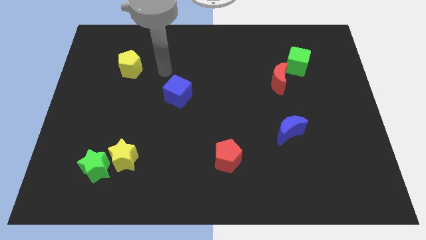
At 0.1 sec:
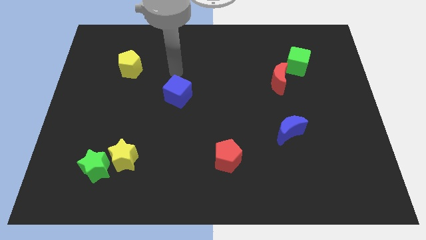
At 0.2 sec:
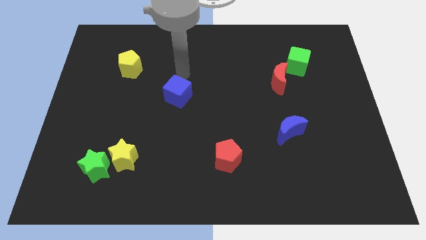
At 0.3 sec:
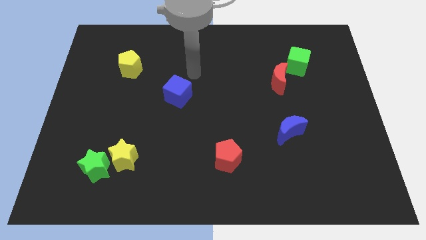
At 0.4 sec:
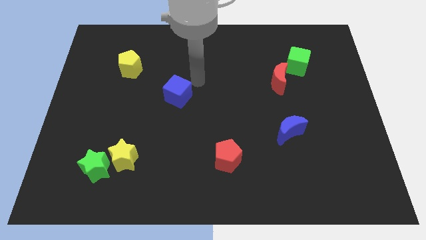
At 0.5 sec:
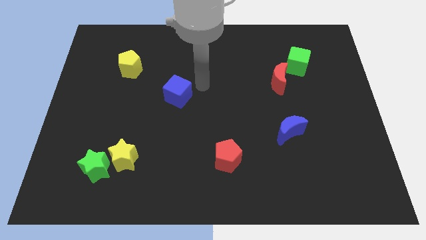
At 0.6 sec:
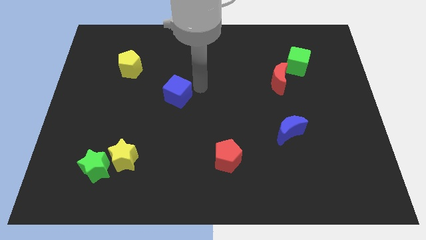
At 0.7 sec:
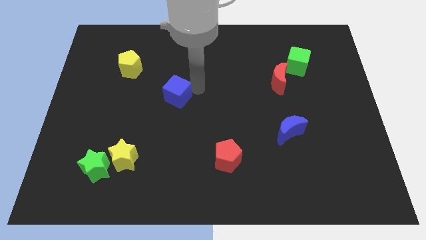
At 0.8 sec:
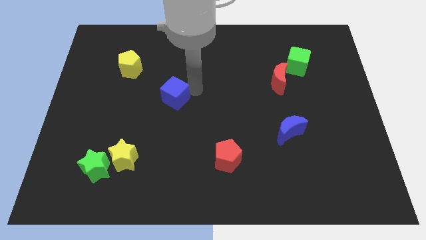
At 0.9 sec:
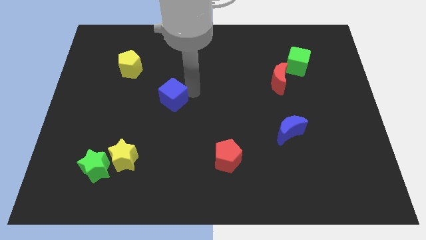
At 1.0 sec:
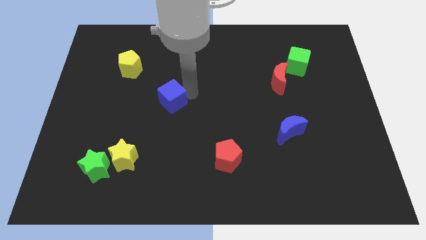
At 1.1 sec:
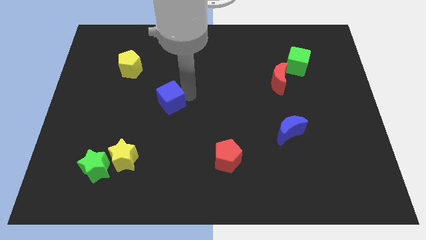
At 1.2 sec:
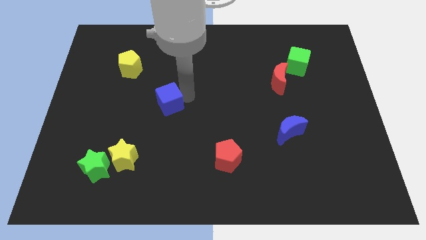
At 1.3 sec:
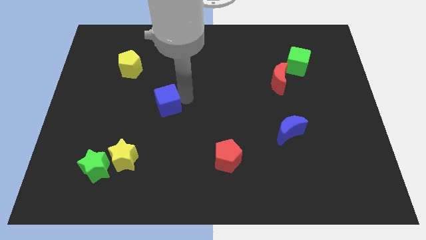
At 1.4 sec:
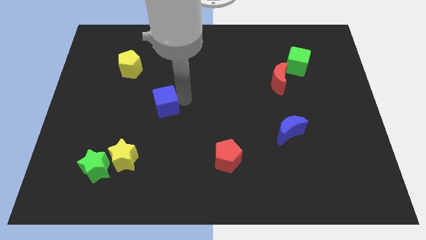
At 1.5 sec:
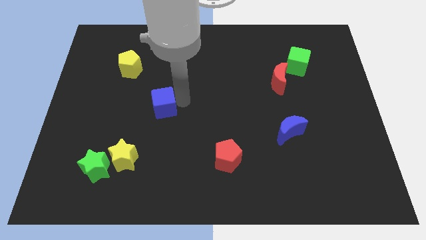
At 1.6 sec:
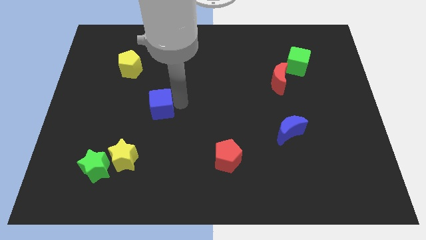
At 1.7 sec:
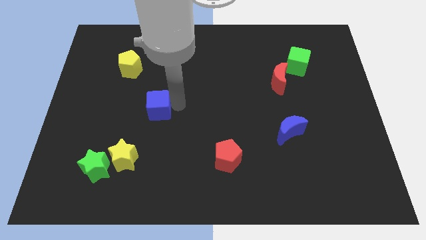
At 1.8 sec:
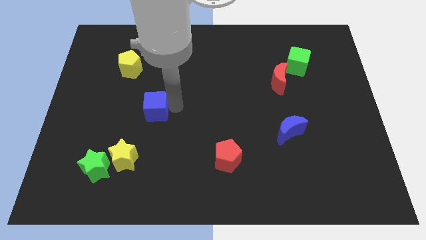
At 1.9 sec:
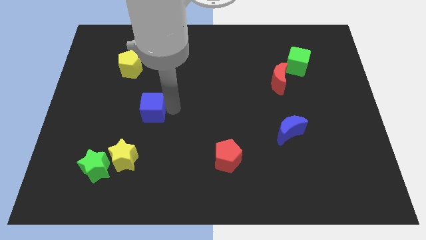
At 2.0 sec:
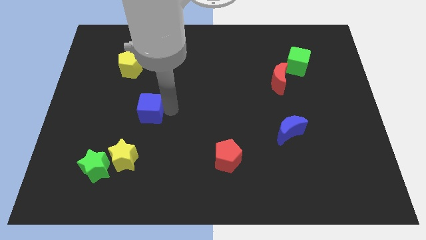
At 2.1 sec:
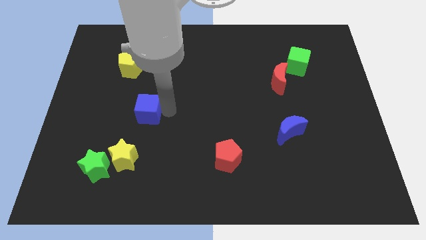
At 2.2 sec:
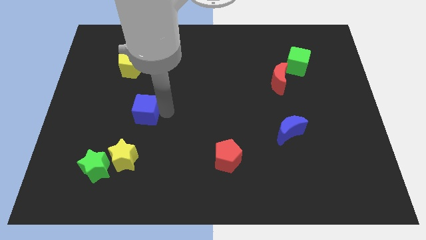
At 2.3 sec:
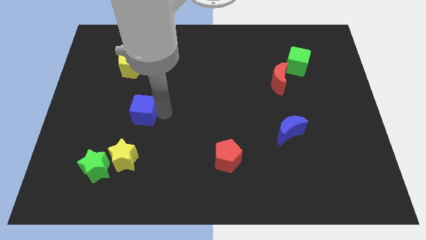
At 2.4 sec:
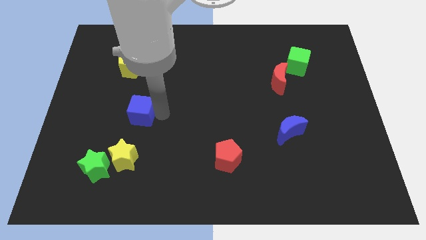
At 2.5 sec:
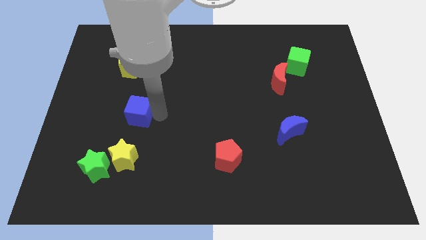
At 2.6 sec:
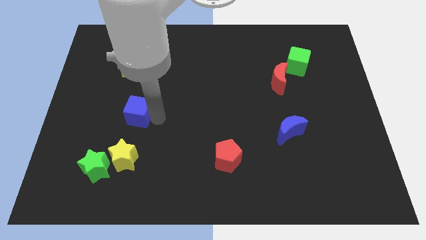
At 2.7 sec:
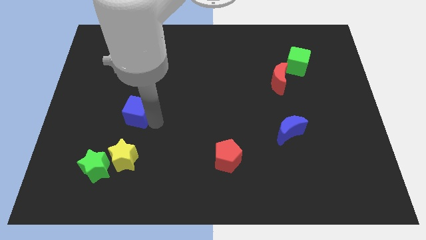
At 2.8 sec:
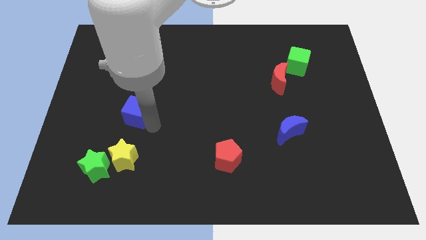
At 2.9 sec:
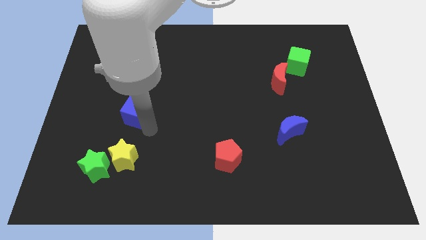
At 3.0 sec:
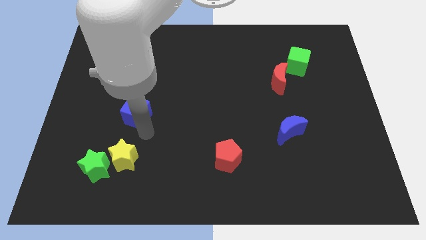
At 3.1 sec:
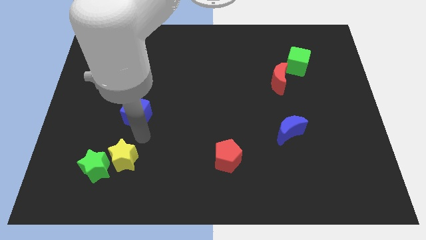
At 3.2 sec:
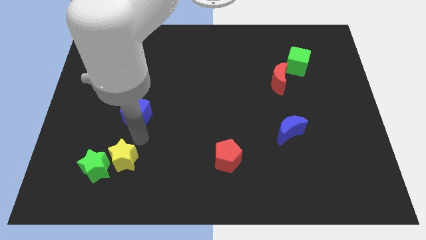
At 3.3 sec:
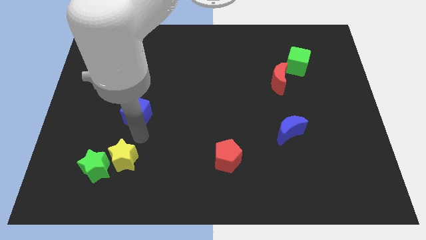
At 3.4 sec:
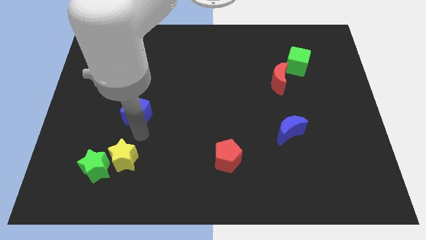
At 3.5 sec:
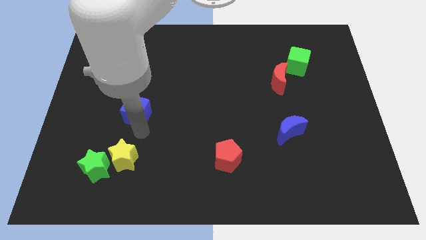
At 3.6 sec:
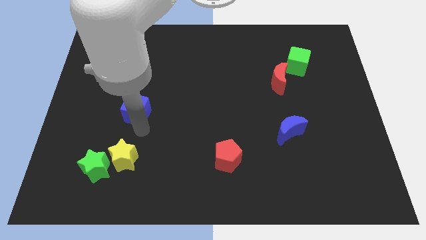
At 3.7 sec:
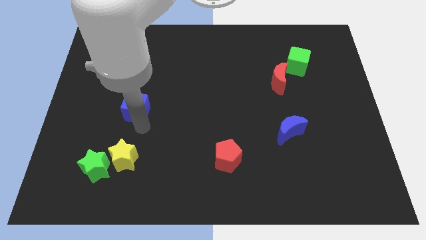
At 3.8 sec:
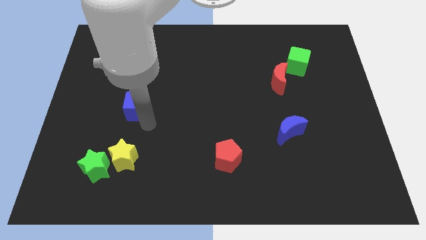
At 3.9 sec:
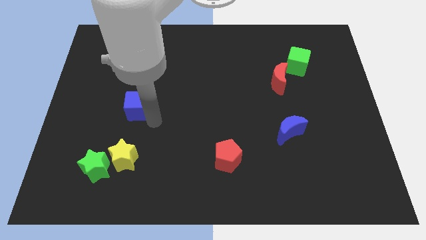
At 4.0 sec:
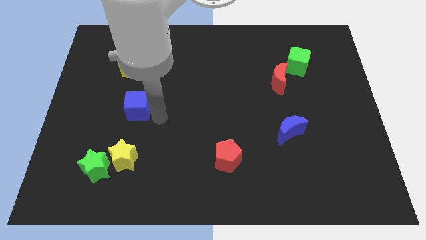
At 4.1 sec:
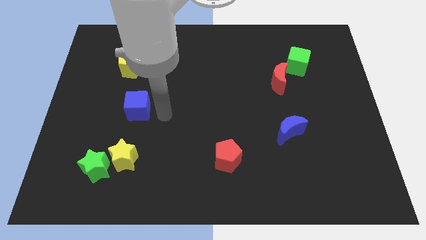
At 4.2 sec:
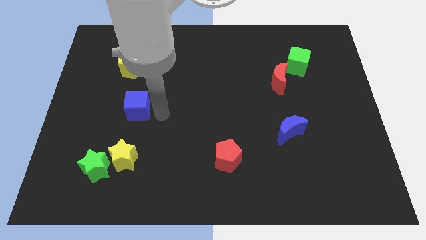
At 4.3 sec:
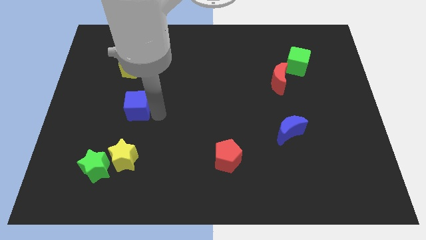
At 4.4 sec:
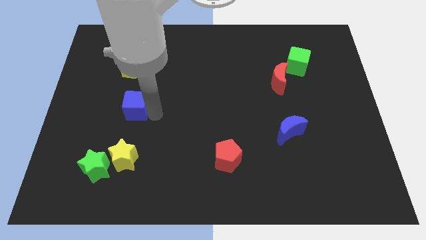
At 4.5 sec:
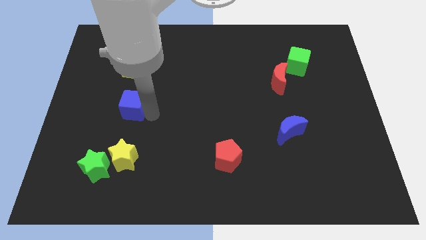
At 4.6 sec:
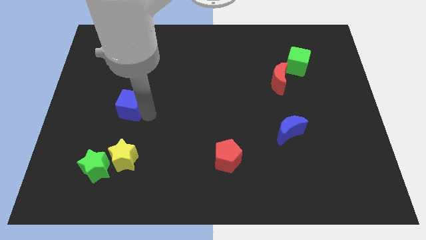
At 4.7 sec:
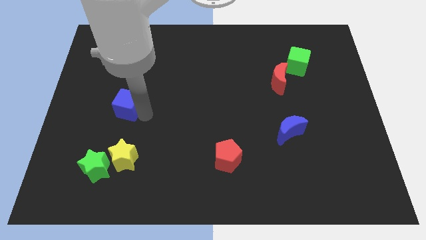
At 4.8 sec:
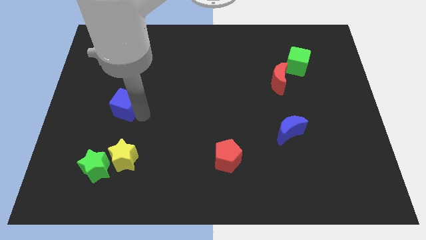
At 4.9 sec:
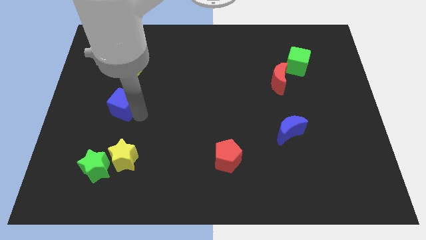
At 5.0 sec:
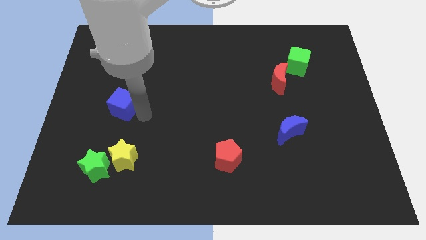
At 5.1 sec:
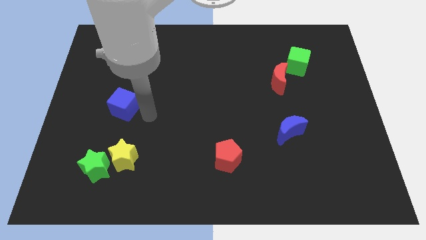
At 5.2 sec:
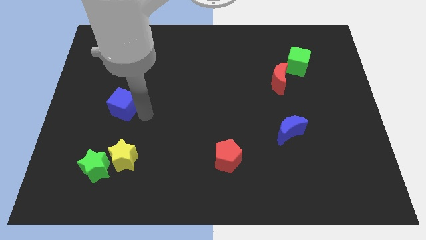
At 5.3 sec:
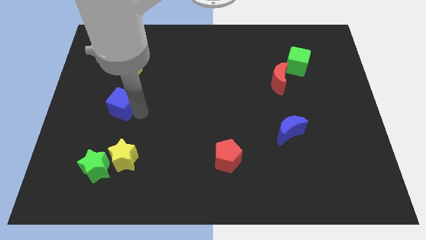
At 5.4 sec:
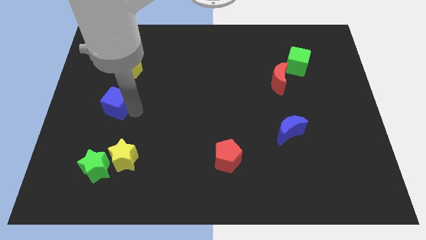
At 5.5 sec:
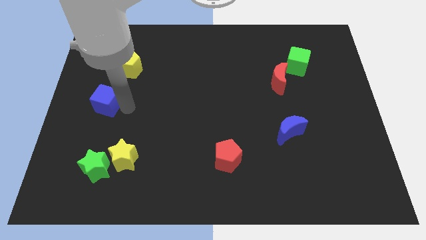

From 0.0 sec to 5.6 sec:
move the blue cube to the left side

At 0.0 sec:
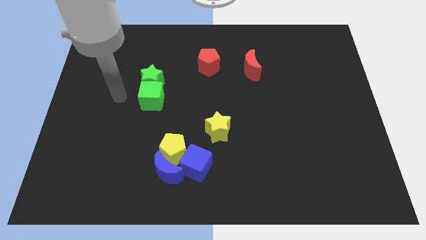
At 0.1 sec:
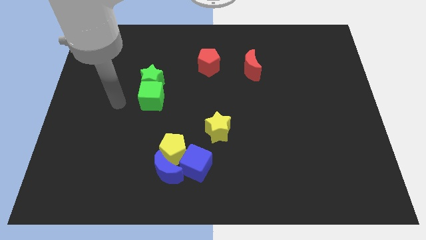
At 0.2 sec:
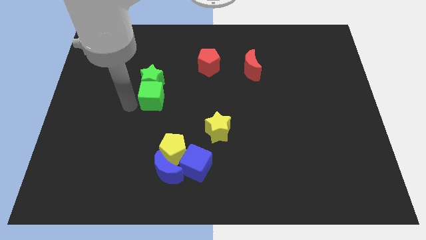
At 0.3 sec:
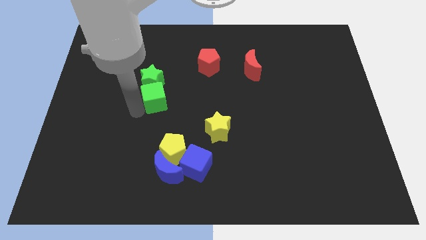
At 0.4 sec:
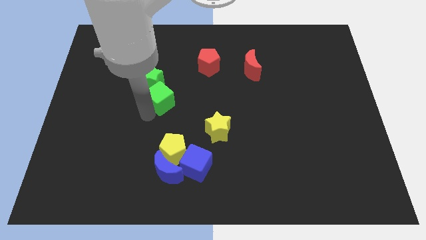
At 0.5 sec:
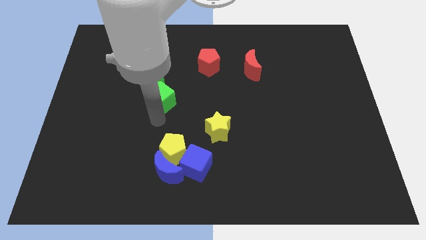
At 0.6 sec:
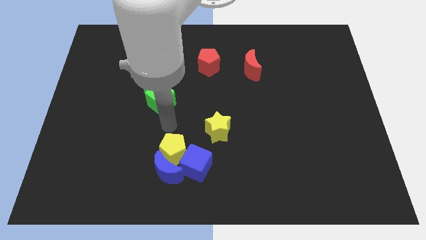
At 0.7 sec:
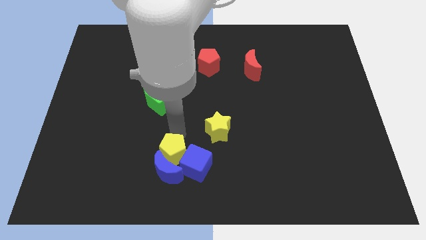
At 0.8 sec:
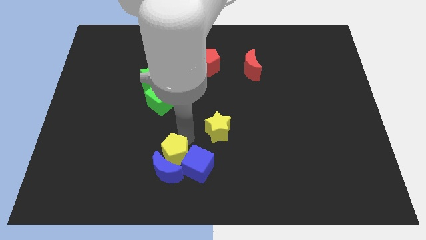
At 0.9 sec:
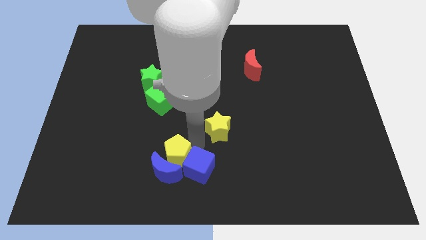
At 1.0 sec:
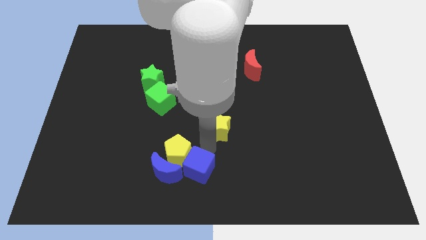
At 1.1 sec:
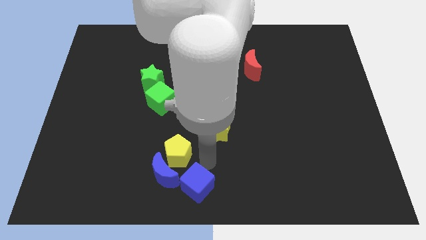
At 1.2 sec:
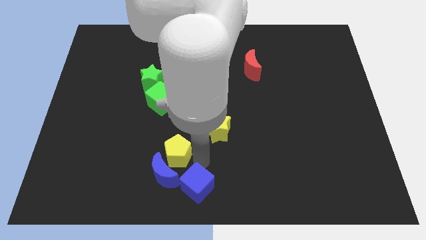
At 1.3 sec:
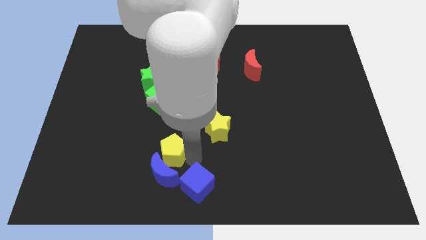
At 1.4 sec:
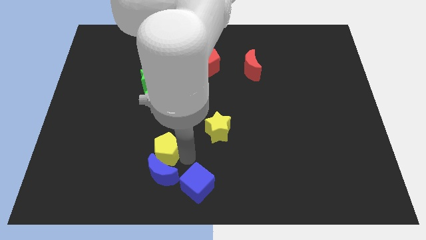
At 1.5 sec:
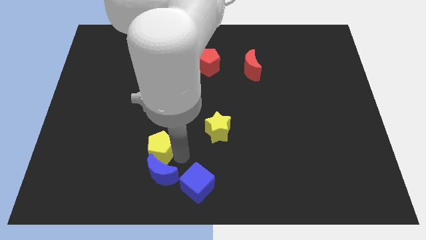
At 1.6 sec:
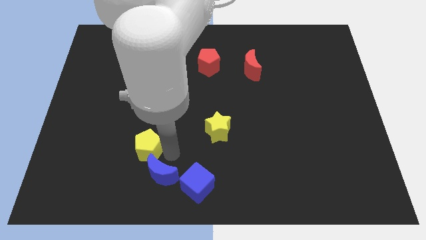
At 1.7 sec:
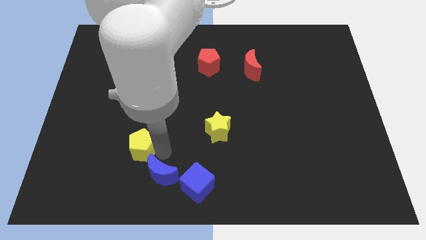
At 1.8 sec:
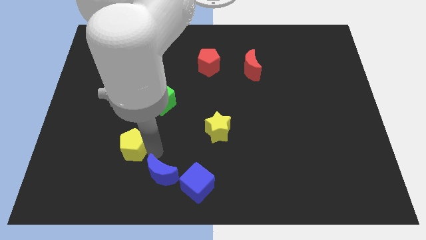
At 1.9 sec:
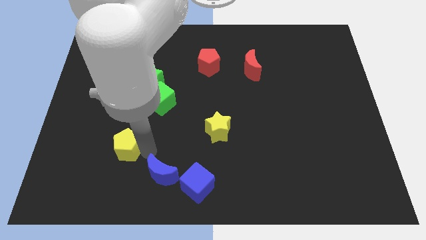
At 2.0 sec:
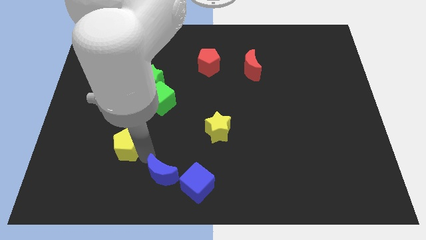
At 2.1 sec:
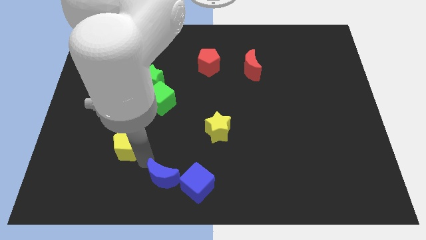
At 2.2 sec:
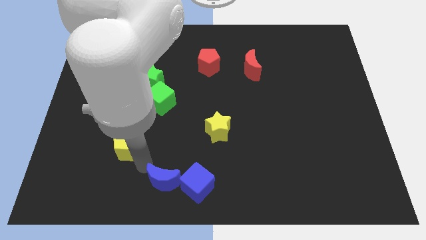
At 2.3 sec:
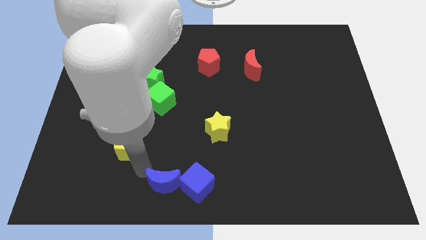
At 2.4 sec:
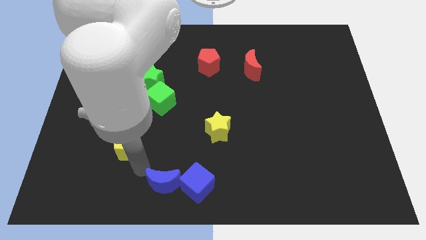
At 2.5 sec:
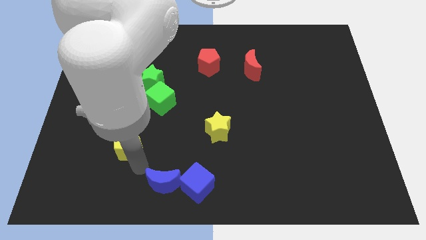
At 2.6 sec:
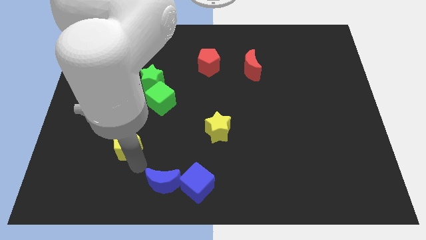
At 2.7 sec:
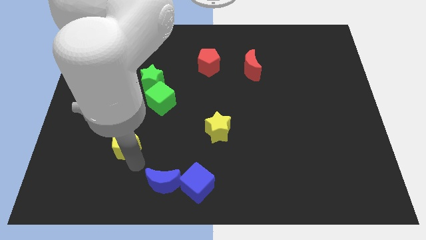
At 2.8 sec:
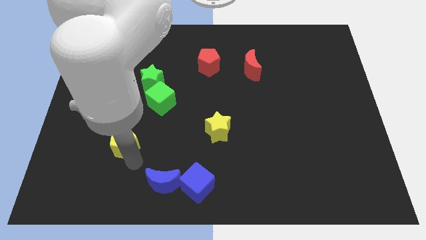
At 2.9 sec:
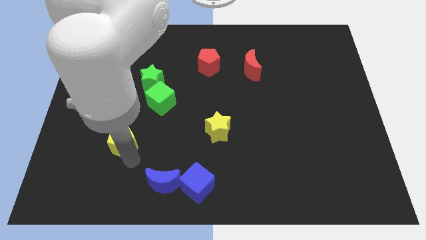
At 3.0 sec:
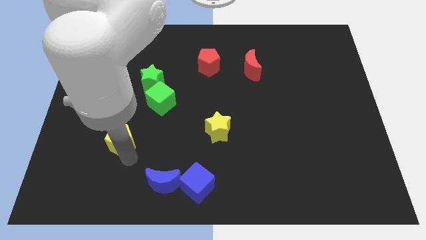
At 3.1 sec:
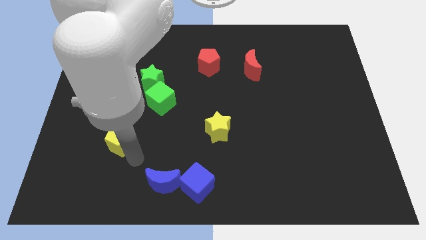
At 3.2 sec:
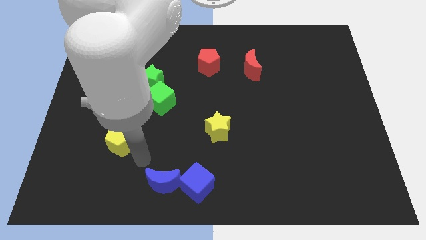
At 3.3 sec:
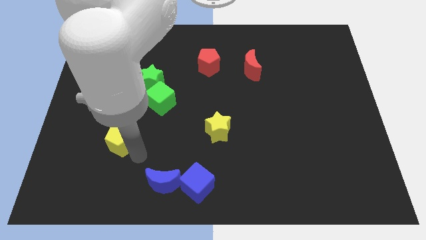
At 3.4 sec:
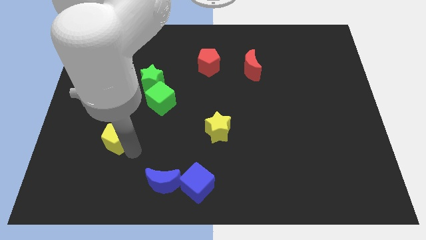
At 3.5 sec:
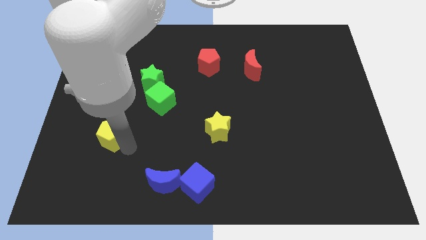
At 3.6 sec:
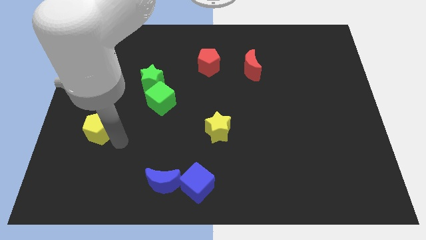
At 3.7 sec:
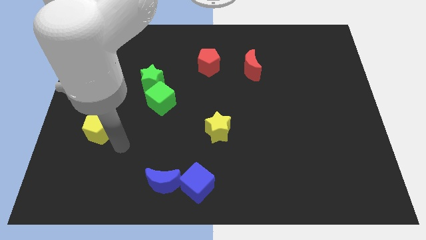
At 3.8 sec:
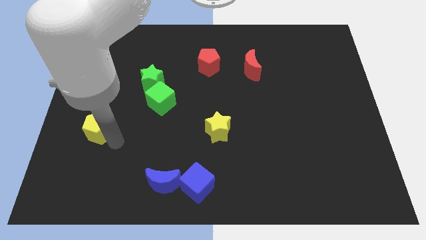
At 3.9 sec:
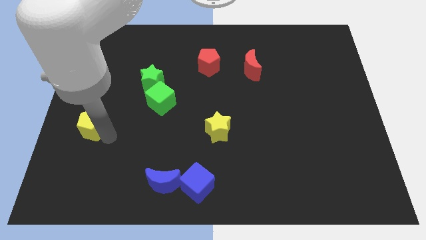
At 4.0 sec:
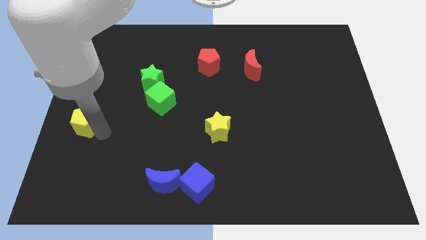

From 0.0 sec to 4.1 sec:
move the yellow pentagon to the left side of the board
